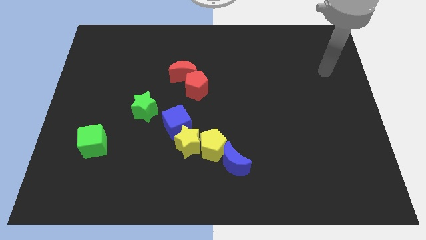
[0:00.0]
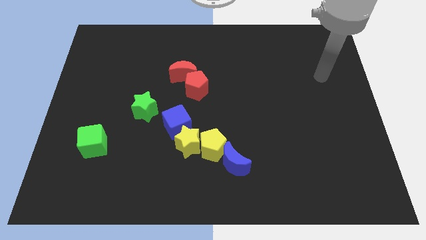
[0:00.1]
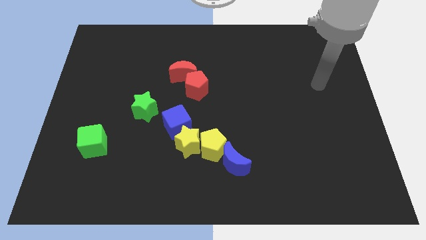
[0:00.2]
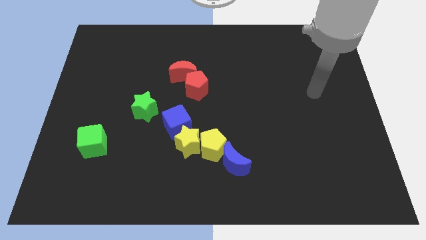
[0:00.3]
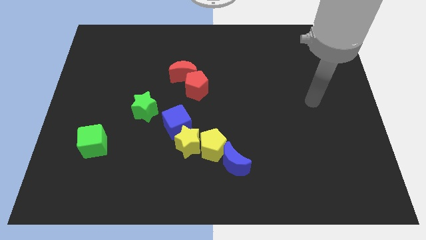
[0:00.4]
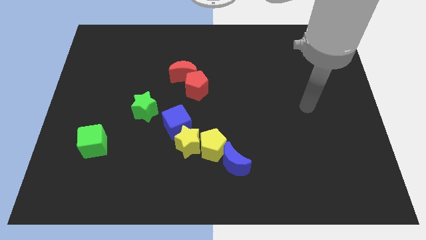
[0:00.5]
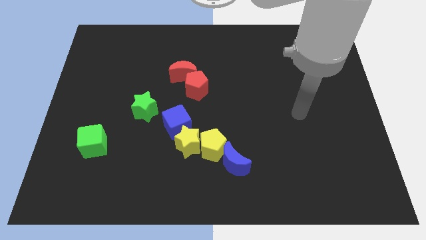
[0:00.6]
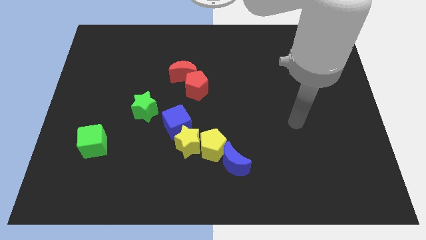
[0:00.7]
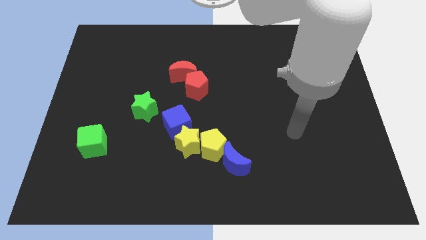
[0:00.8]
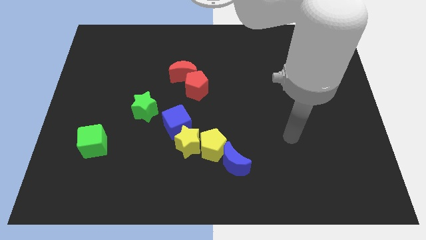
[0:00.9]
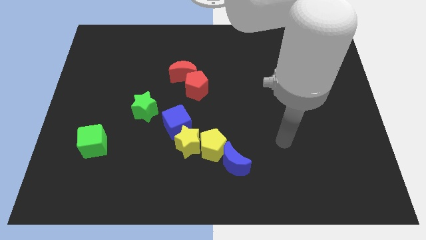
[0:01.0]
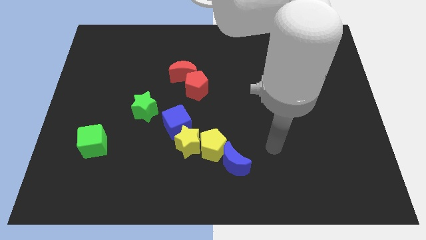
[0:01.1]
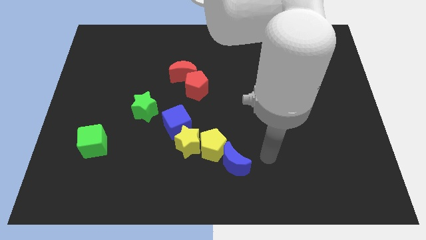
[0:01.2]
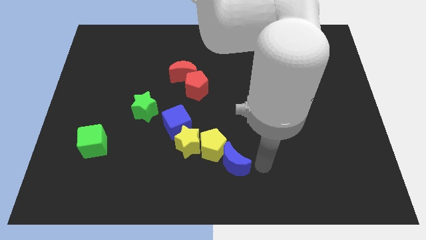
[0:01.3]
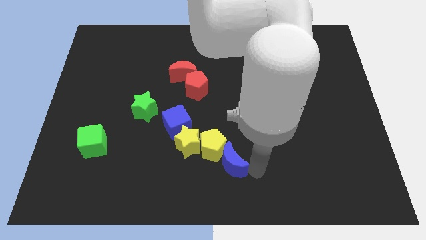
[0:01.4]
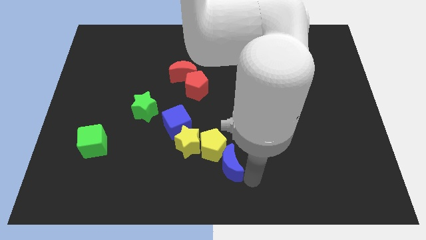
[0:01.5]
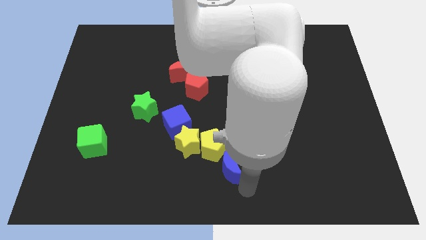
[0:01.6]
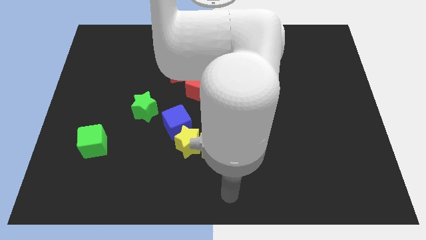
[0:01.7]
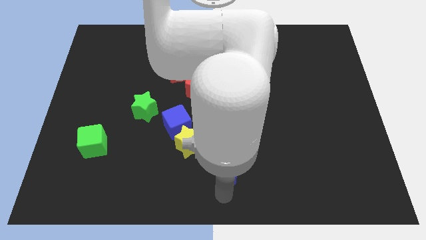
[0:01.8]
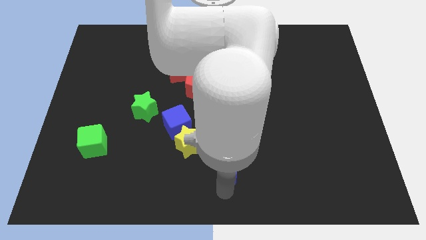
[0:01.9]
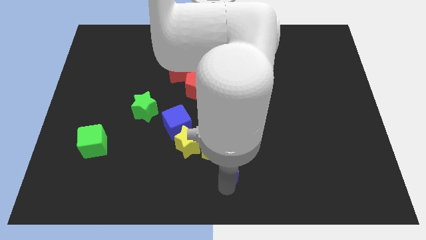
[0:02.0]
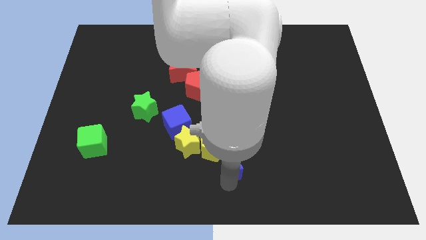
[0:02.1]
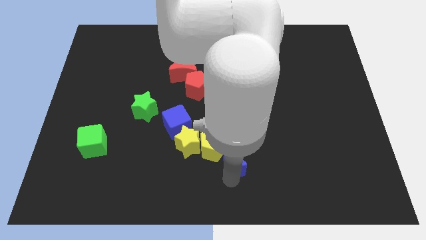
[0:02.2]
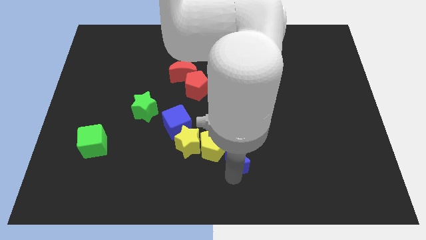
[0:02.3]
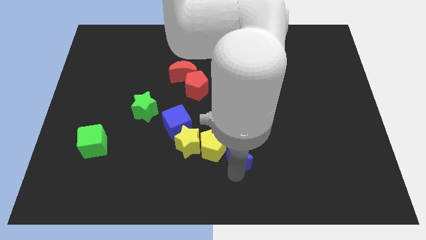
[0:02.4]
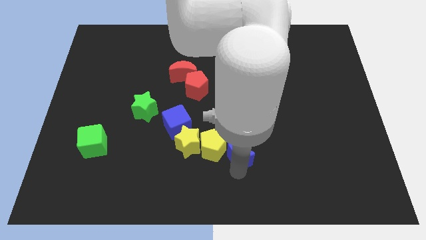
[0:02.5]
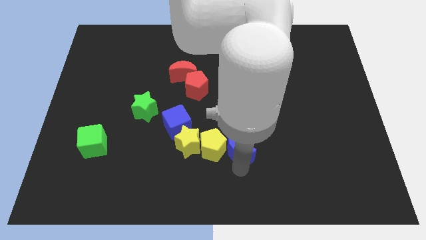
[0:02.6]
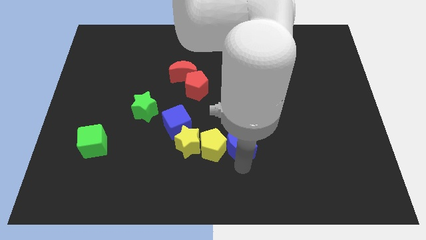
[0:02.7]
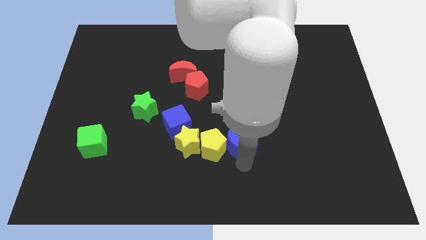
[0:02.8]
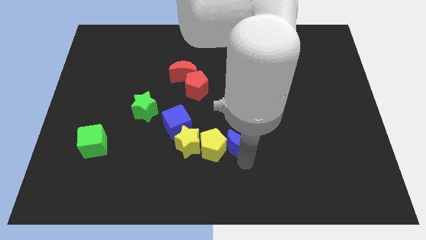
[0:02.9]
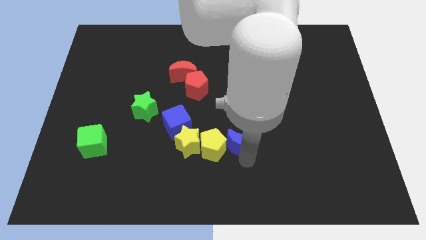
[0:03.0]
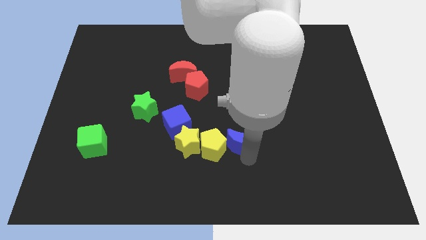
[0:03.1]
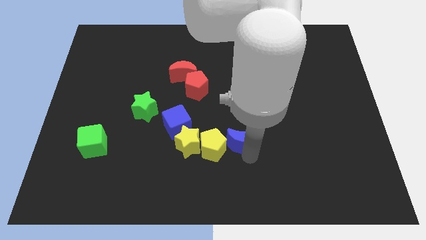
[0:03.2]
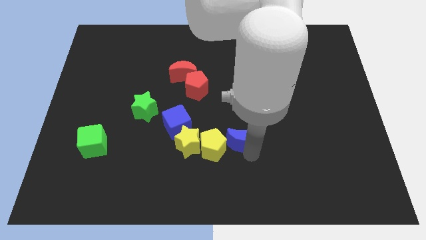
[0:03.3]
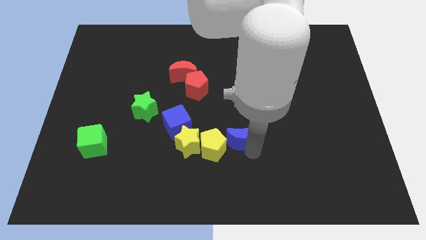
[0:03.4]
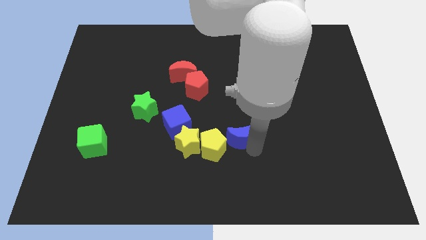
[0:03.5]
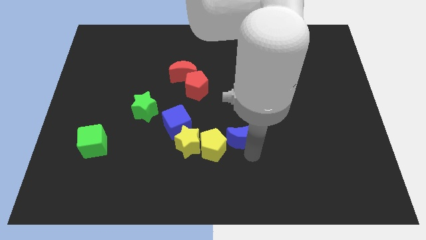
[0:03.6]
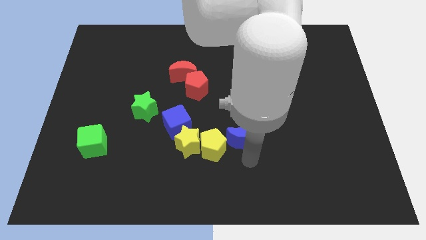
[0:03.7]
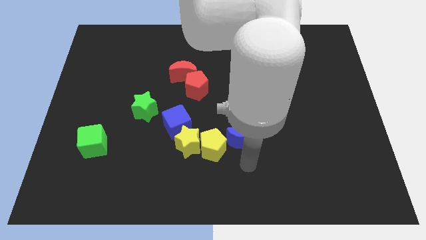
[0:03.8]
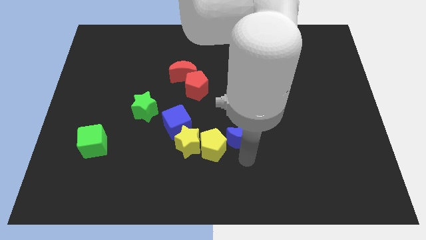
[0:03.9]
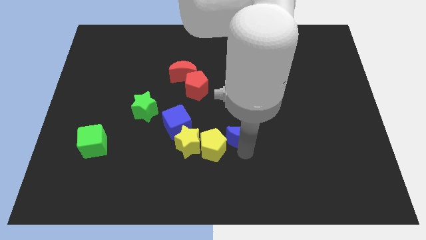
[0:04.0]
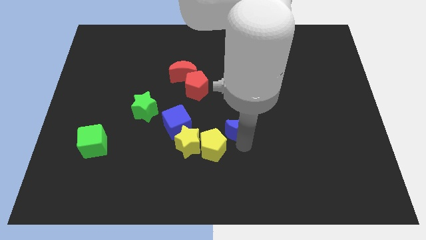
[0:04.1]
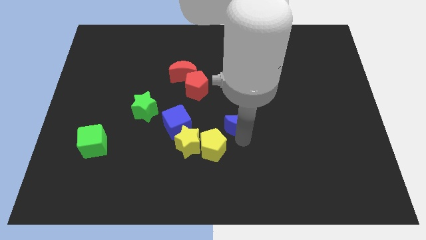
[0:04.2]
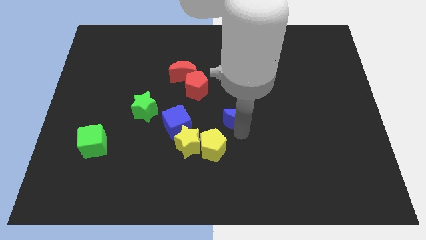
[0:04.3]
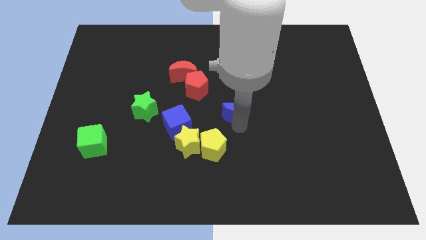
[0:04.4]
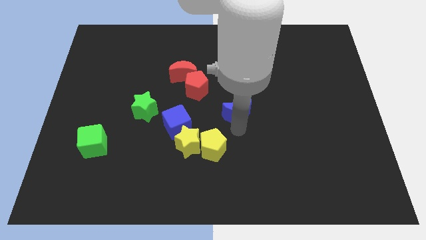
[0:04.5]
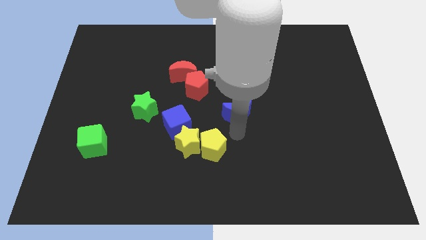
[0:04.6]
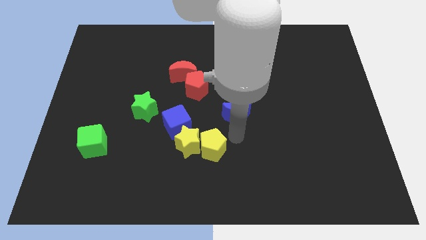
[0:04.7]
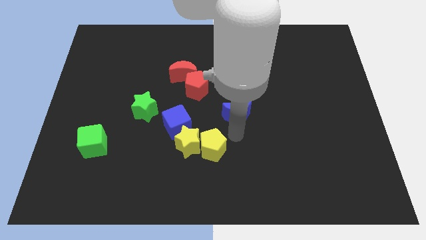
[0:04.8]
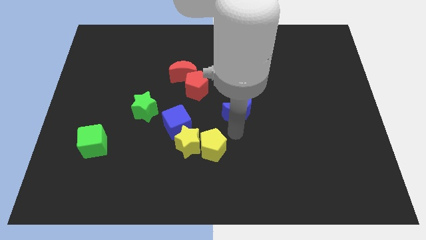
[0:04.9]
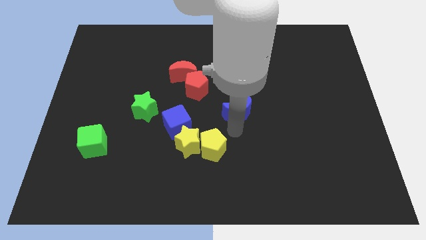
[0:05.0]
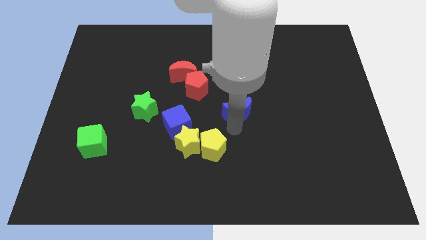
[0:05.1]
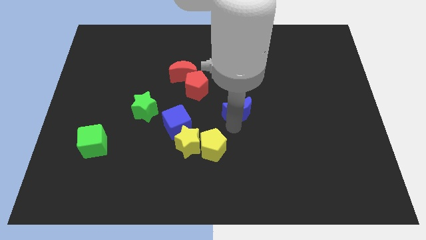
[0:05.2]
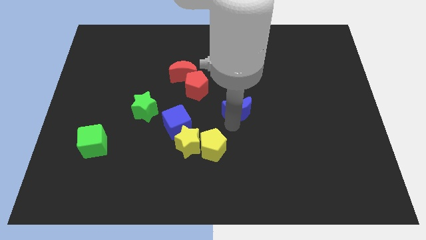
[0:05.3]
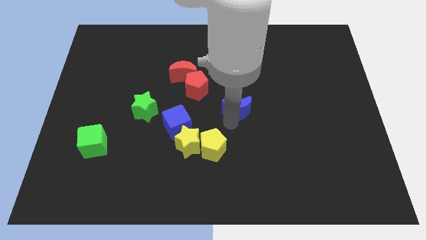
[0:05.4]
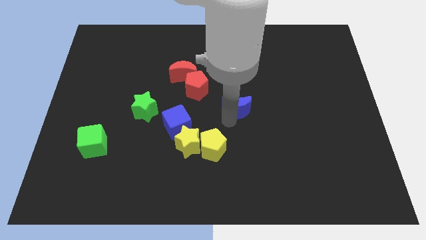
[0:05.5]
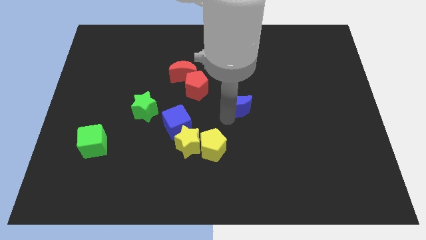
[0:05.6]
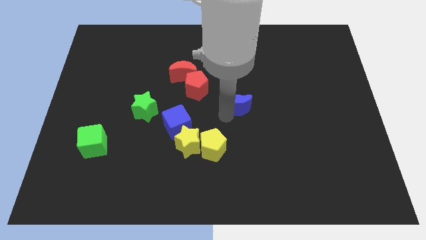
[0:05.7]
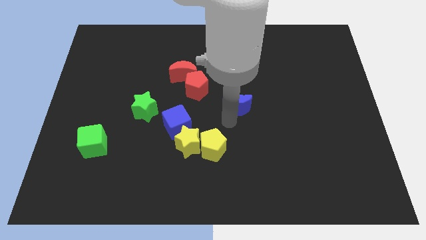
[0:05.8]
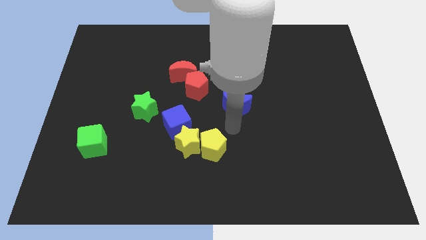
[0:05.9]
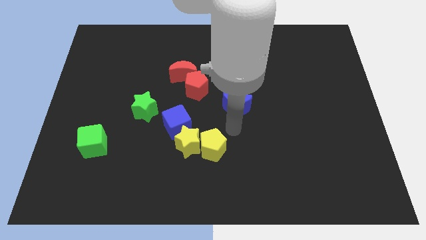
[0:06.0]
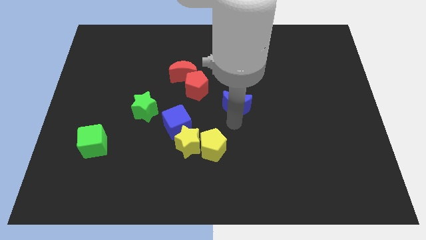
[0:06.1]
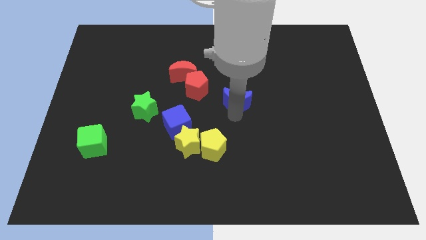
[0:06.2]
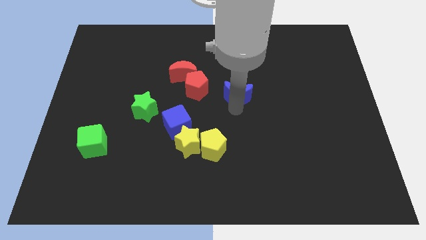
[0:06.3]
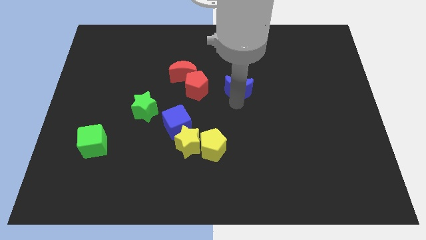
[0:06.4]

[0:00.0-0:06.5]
slide the blue moon upwards

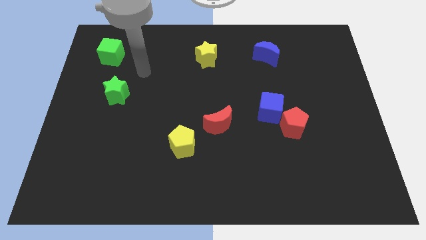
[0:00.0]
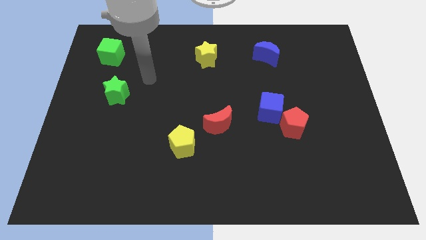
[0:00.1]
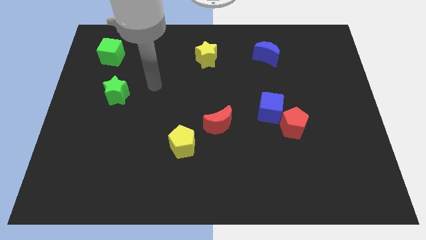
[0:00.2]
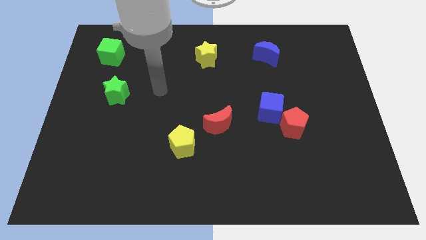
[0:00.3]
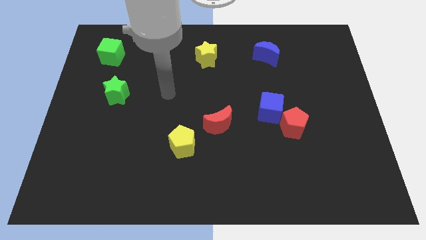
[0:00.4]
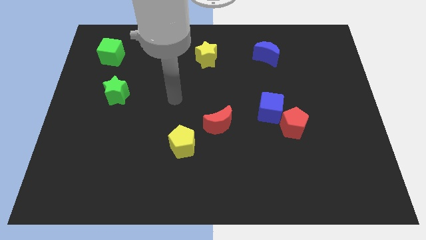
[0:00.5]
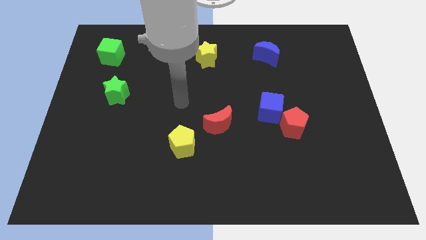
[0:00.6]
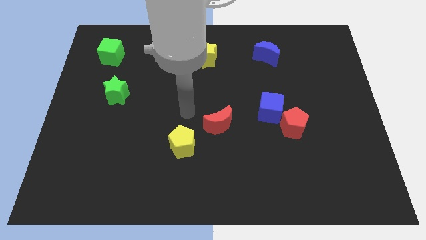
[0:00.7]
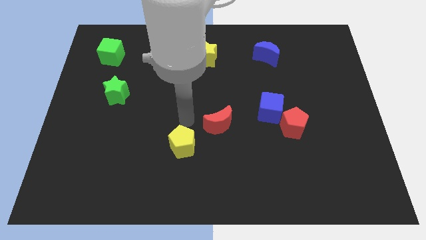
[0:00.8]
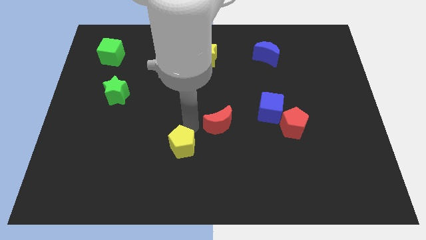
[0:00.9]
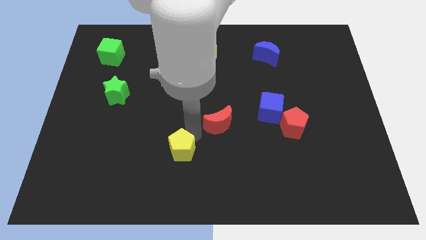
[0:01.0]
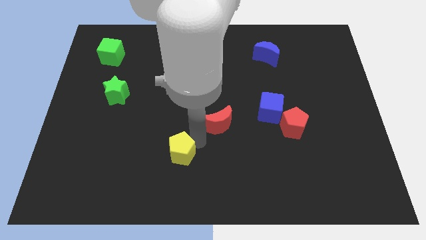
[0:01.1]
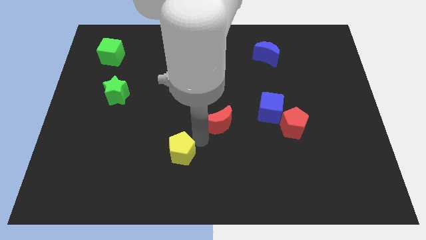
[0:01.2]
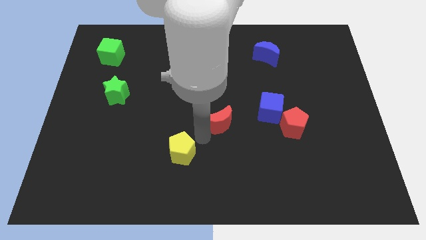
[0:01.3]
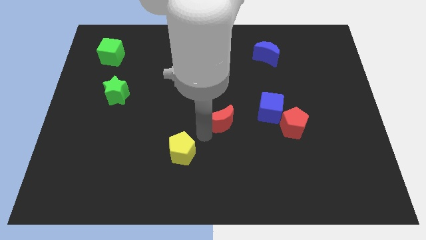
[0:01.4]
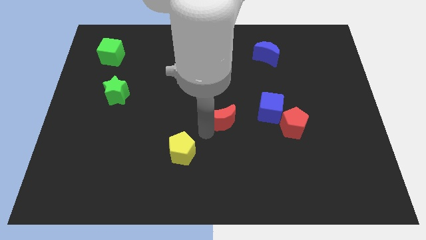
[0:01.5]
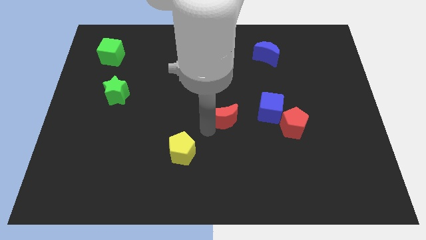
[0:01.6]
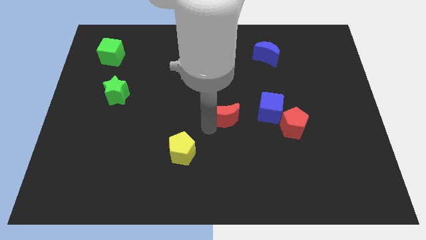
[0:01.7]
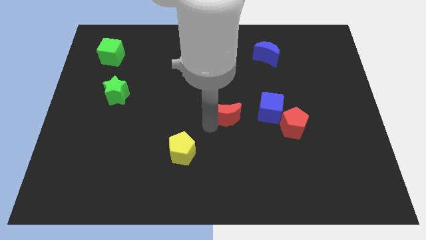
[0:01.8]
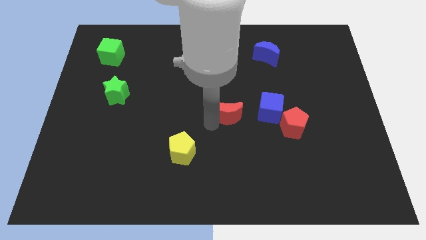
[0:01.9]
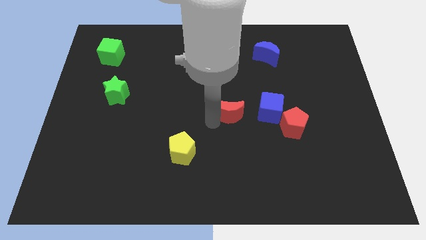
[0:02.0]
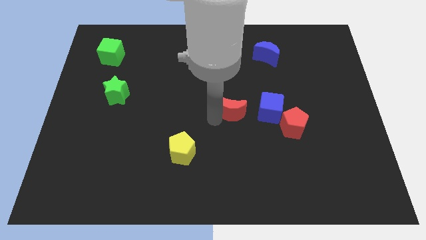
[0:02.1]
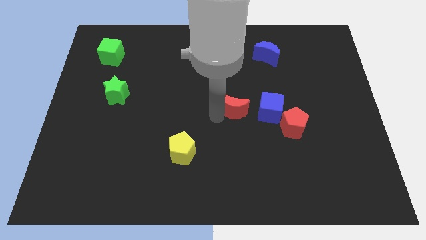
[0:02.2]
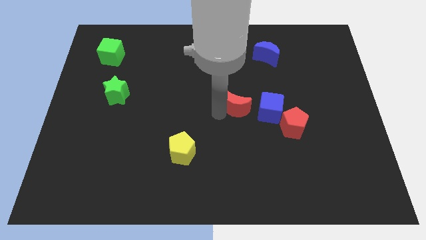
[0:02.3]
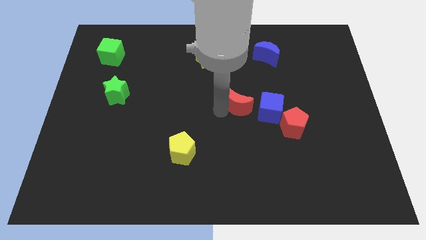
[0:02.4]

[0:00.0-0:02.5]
push the red moon diagonally upwards and right a bit
